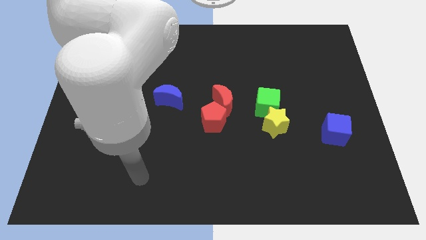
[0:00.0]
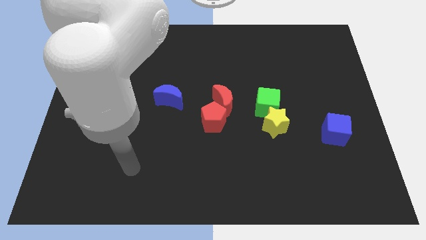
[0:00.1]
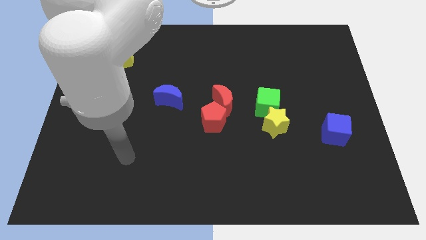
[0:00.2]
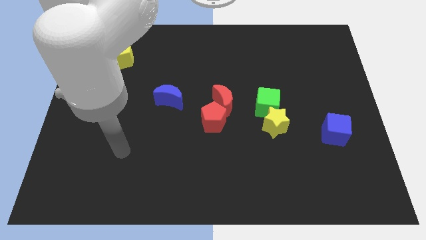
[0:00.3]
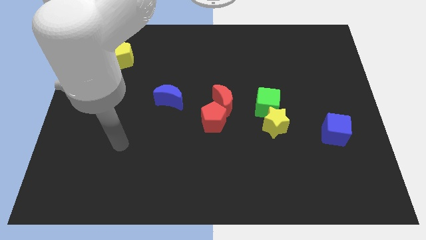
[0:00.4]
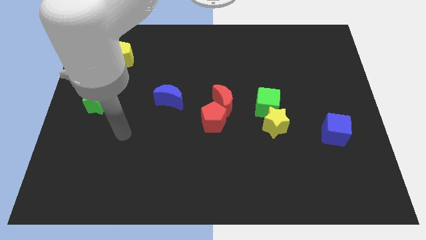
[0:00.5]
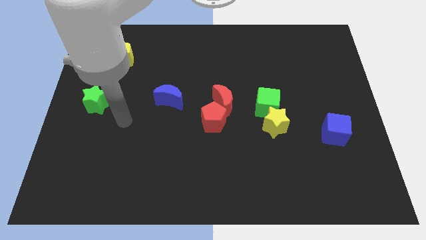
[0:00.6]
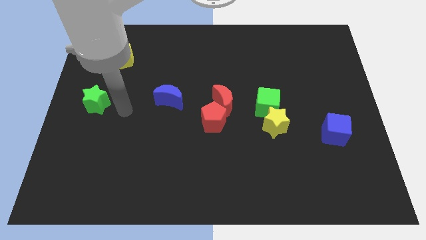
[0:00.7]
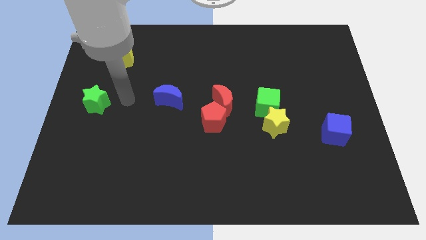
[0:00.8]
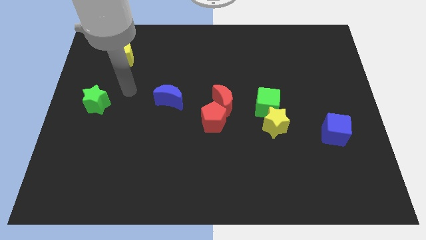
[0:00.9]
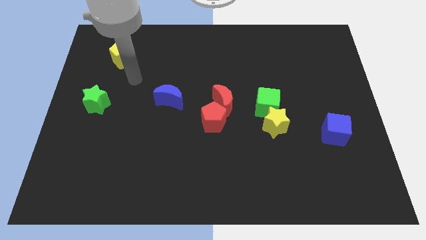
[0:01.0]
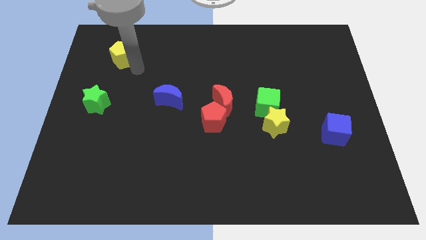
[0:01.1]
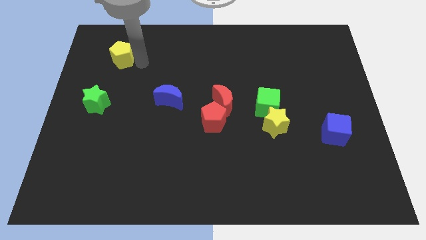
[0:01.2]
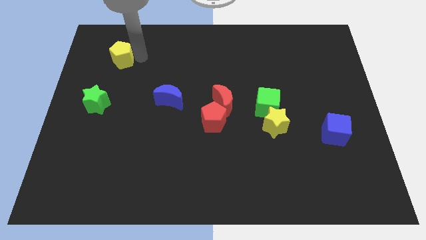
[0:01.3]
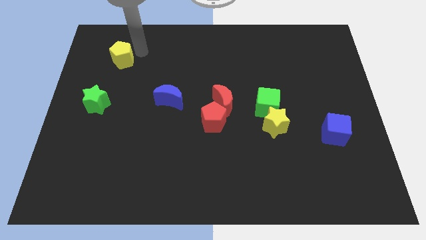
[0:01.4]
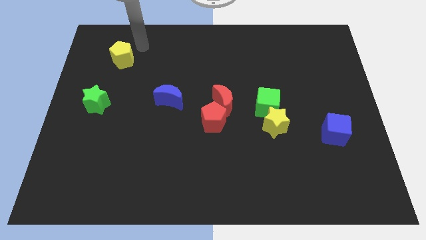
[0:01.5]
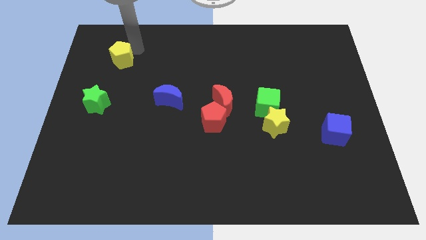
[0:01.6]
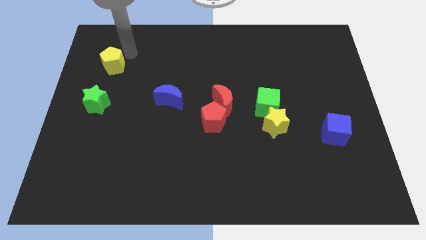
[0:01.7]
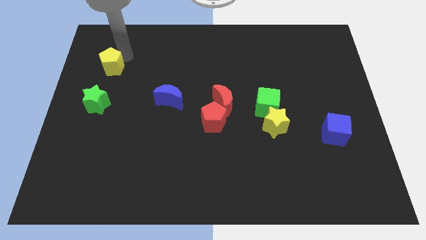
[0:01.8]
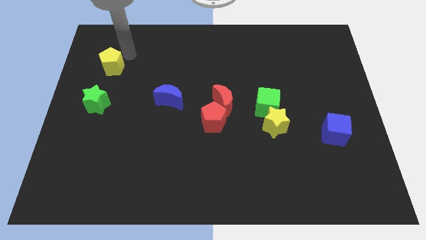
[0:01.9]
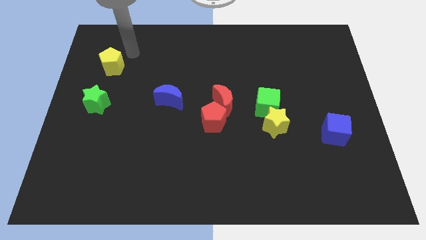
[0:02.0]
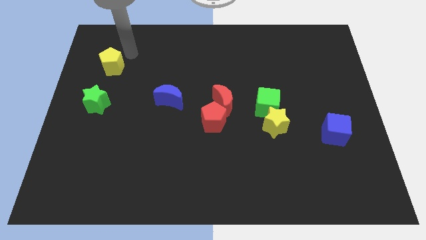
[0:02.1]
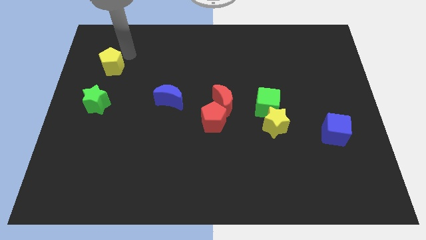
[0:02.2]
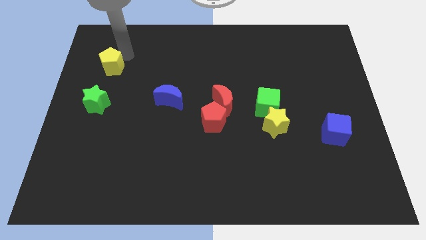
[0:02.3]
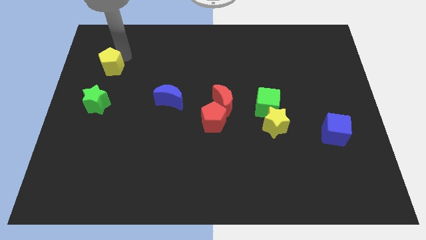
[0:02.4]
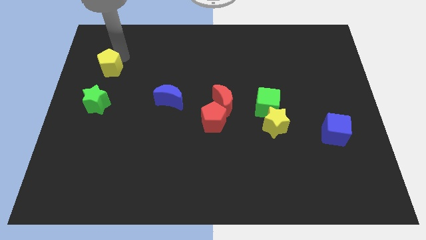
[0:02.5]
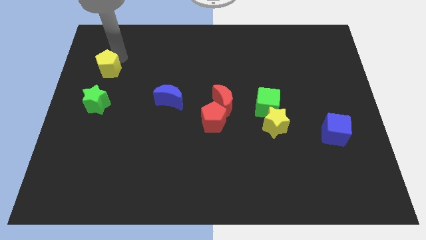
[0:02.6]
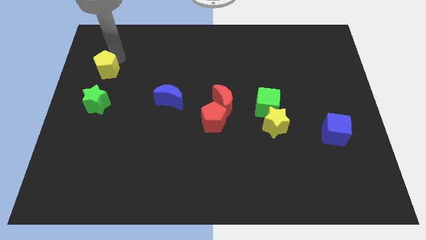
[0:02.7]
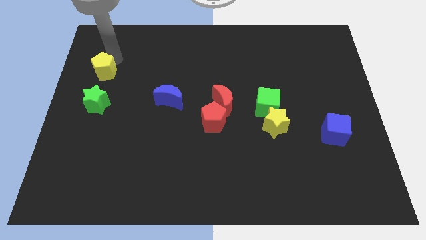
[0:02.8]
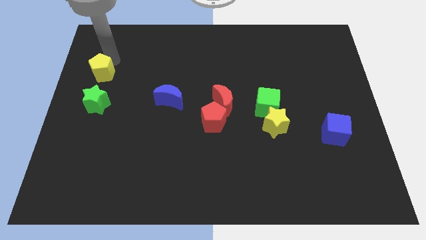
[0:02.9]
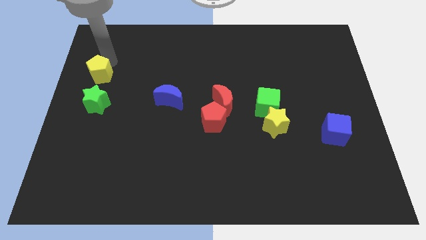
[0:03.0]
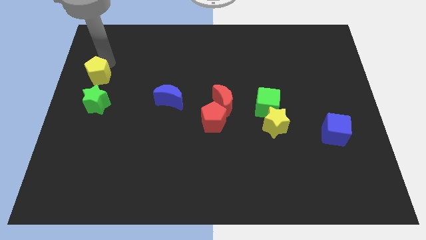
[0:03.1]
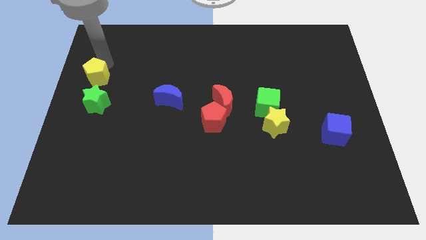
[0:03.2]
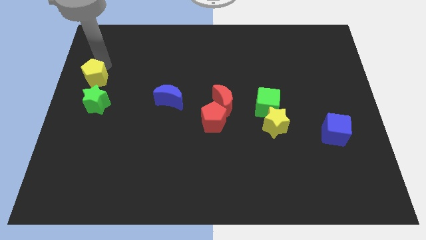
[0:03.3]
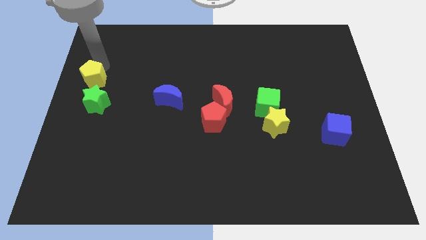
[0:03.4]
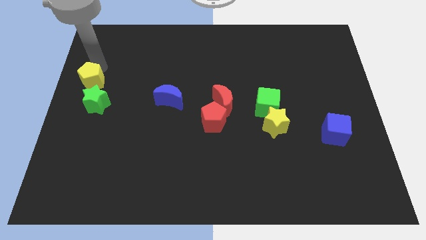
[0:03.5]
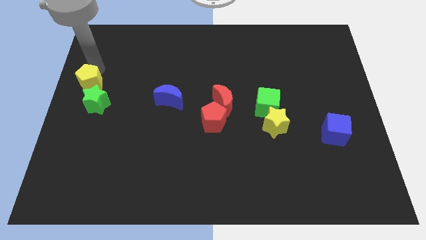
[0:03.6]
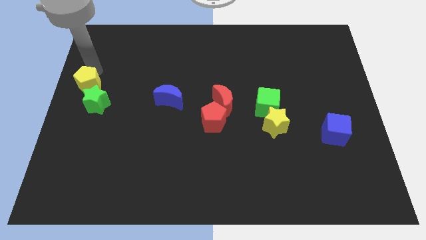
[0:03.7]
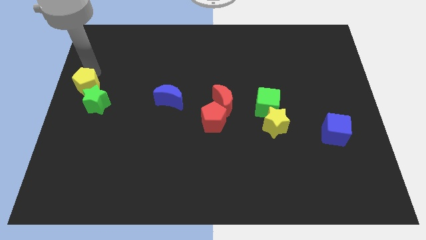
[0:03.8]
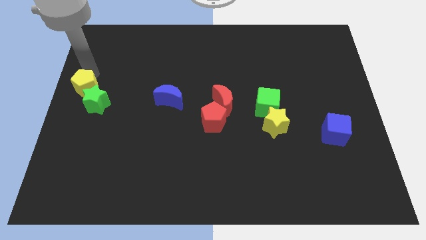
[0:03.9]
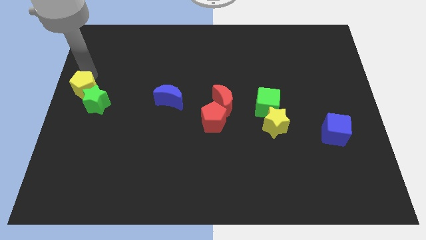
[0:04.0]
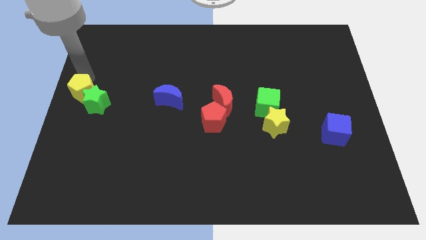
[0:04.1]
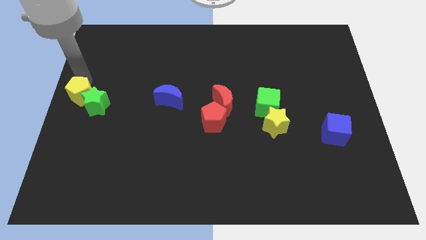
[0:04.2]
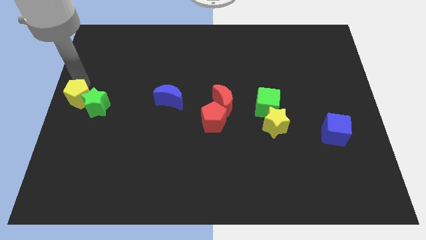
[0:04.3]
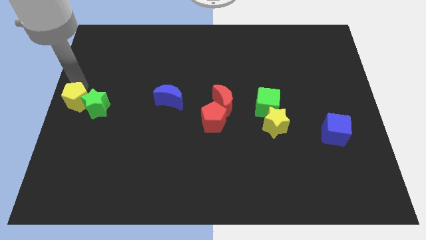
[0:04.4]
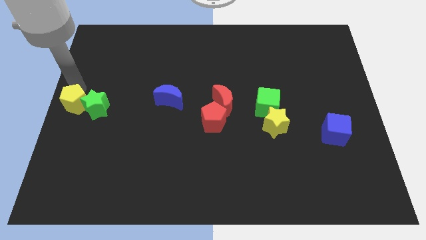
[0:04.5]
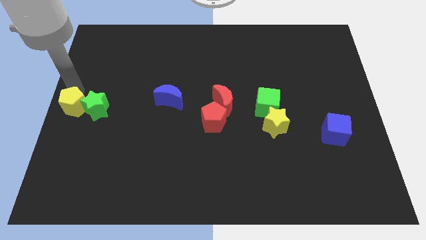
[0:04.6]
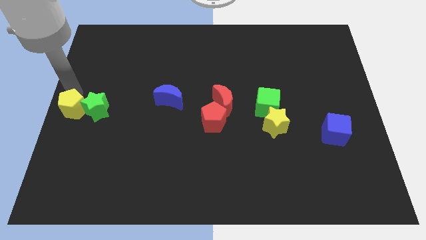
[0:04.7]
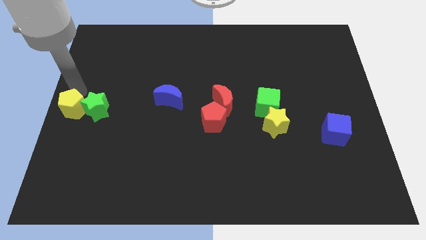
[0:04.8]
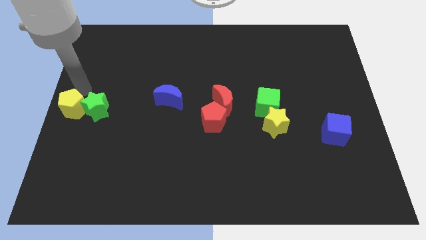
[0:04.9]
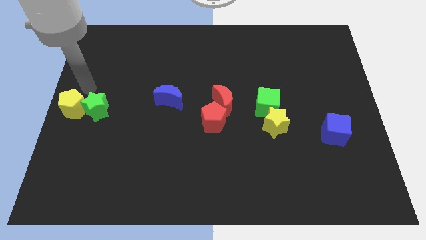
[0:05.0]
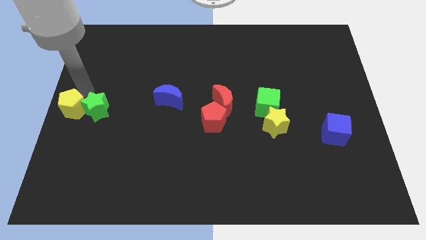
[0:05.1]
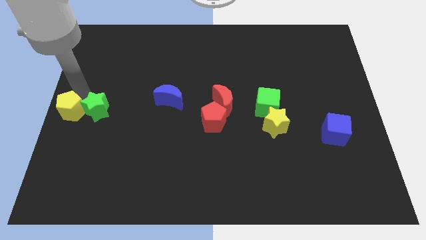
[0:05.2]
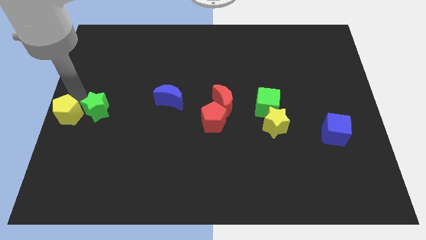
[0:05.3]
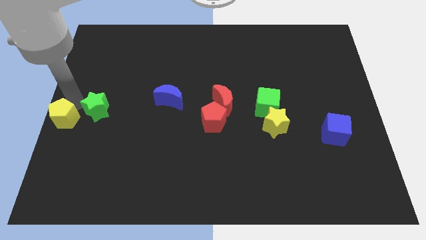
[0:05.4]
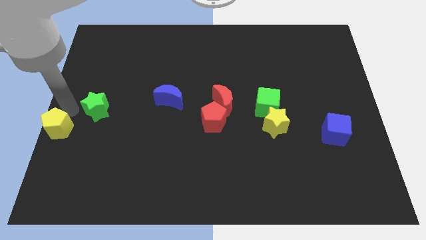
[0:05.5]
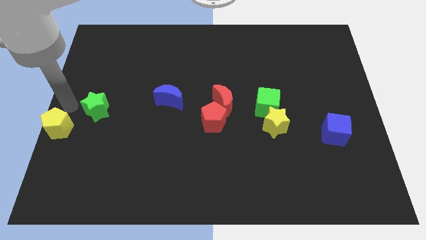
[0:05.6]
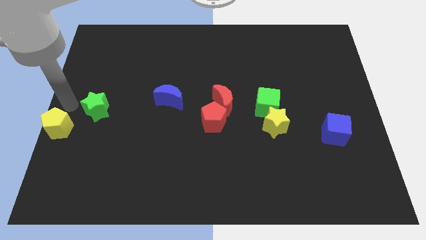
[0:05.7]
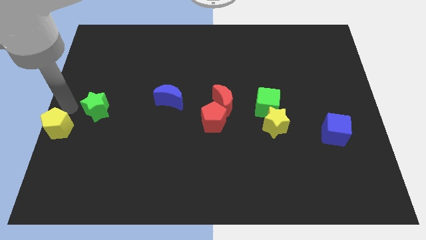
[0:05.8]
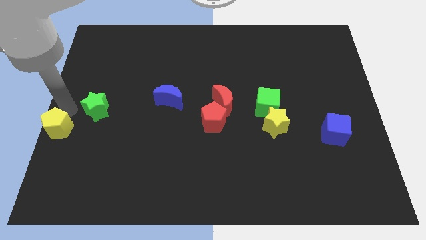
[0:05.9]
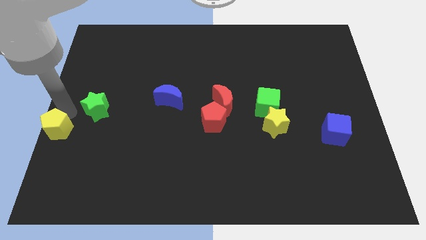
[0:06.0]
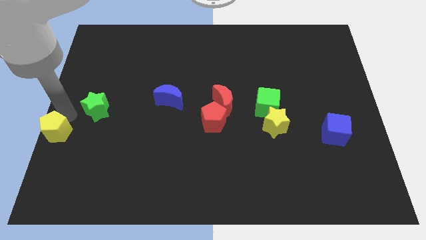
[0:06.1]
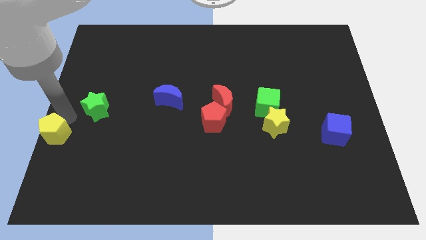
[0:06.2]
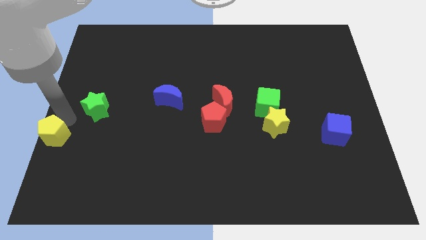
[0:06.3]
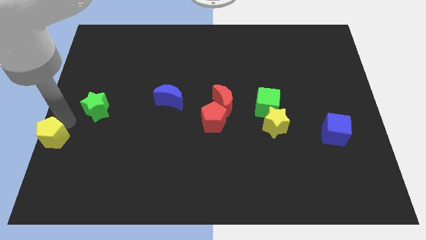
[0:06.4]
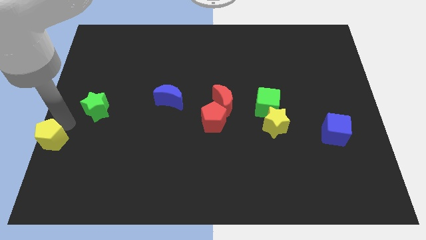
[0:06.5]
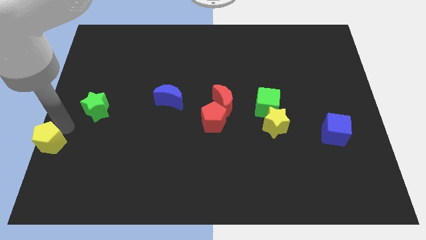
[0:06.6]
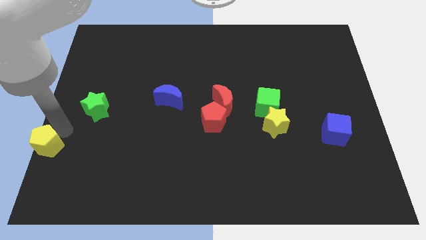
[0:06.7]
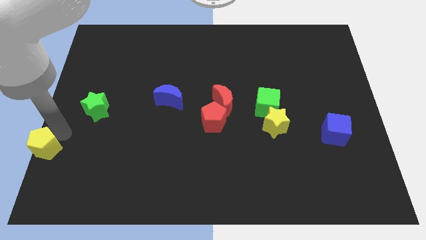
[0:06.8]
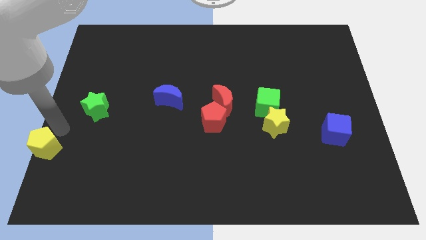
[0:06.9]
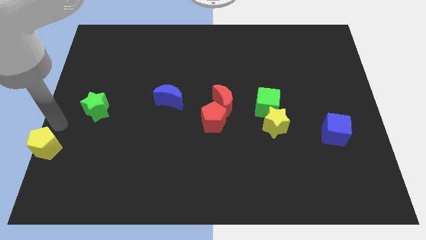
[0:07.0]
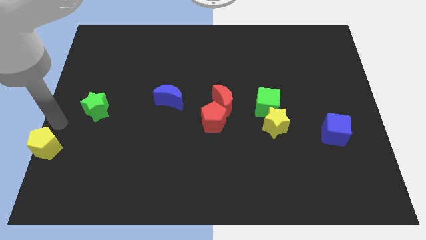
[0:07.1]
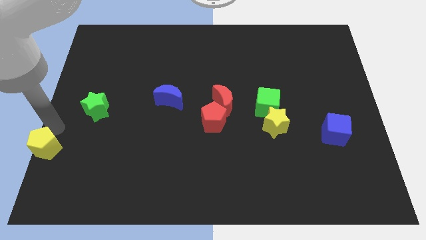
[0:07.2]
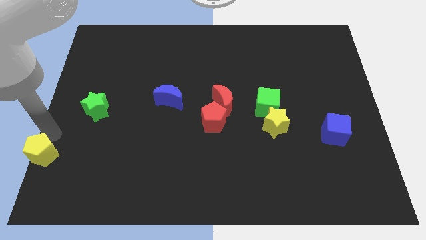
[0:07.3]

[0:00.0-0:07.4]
push the yellow pentagon to the bottom left corner
